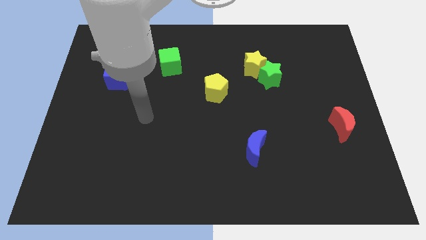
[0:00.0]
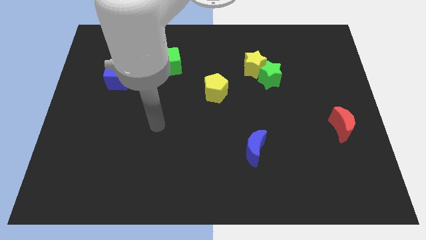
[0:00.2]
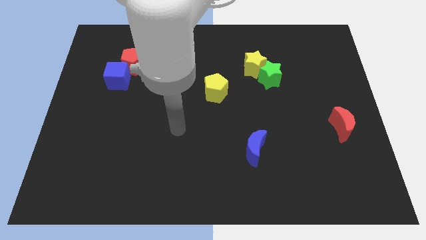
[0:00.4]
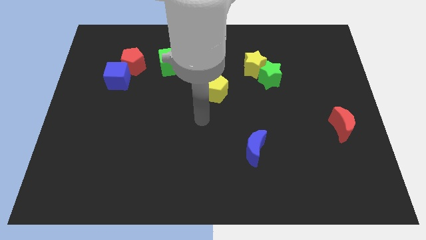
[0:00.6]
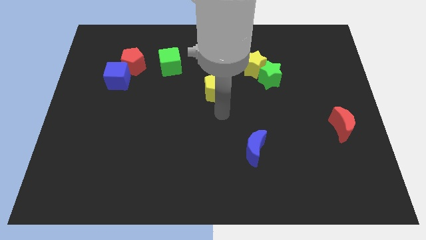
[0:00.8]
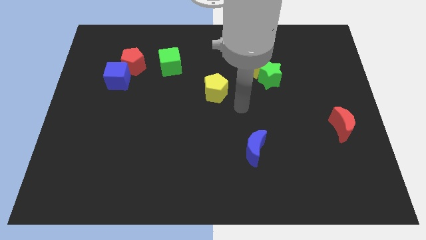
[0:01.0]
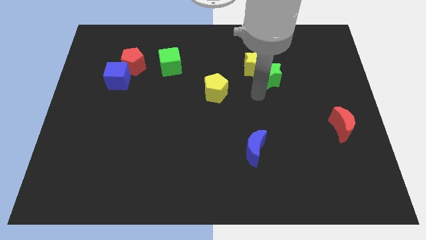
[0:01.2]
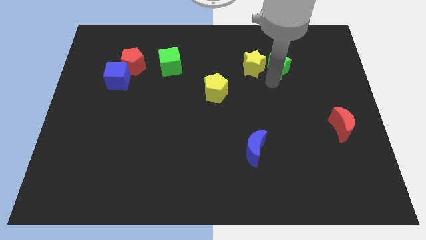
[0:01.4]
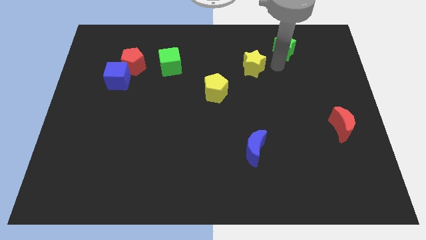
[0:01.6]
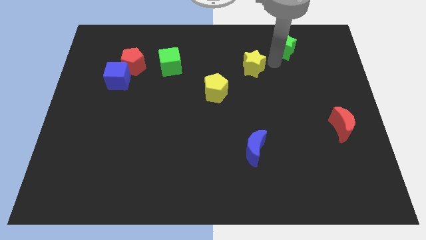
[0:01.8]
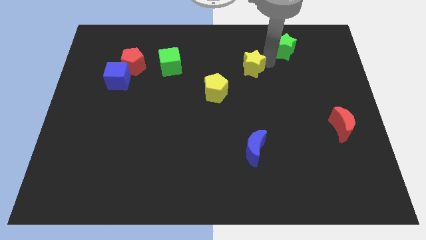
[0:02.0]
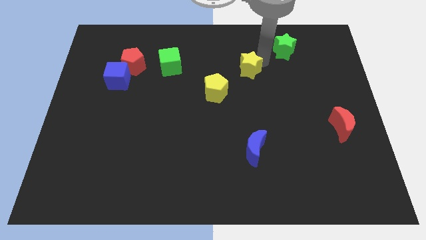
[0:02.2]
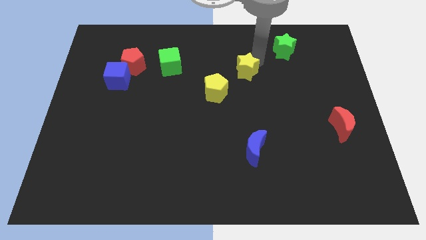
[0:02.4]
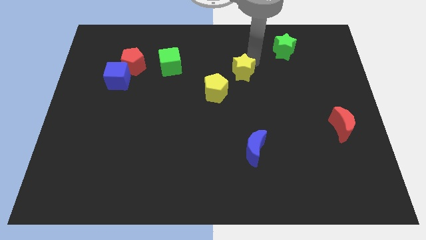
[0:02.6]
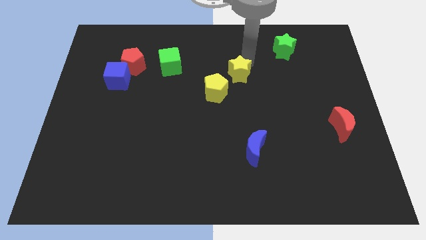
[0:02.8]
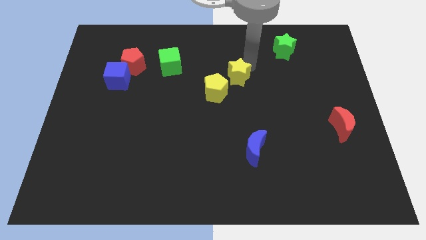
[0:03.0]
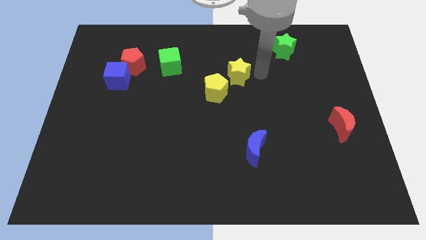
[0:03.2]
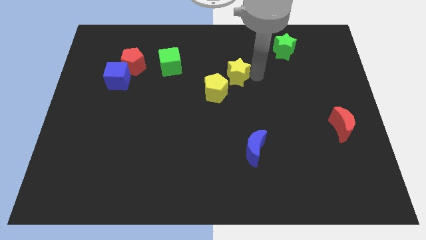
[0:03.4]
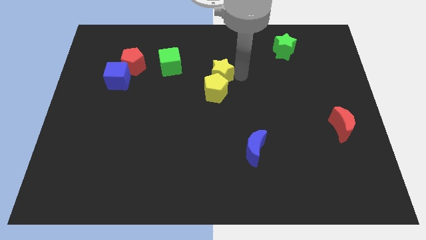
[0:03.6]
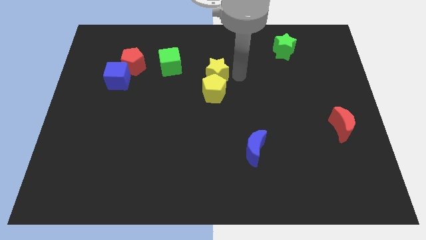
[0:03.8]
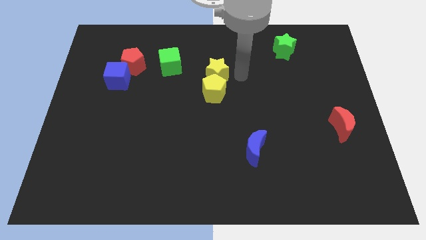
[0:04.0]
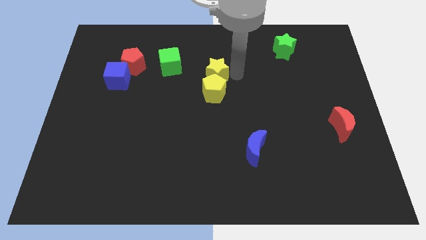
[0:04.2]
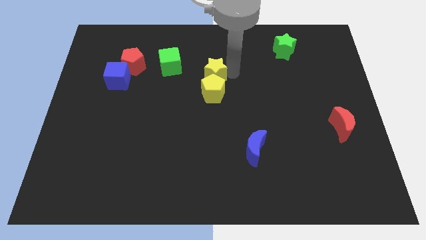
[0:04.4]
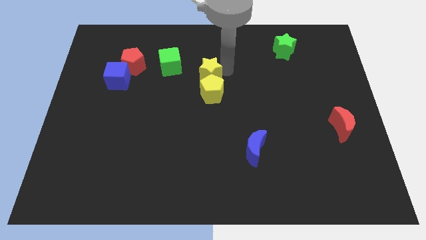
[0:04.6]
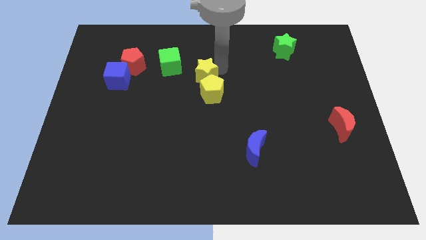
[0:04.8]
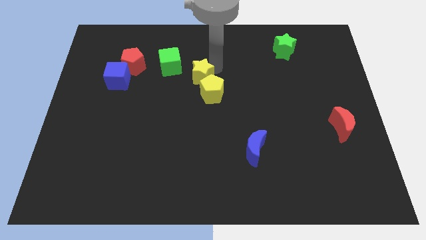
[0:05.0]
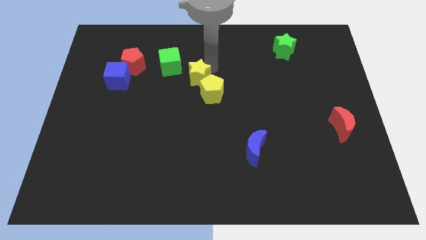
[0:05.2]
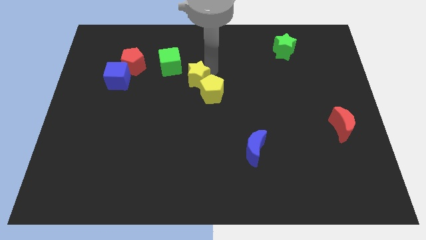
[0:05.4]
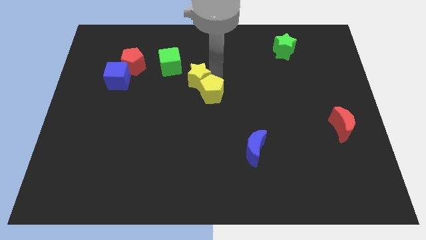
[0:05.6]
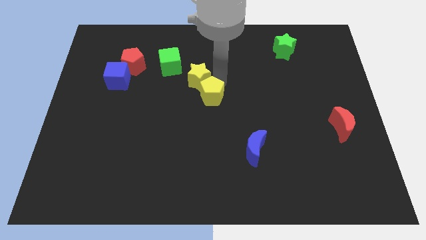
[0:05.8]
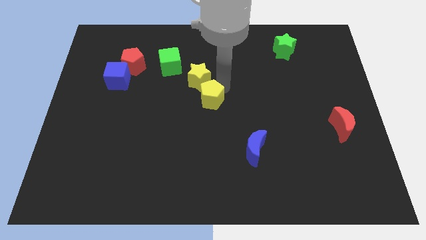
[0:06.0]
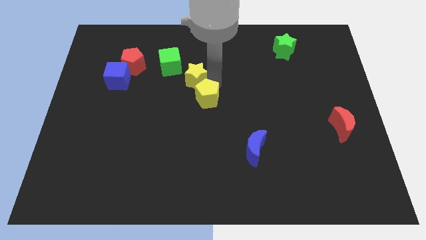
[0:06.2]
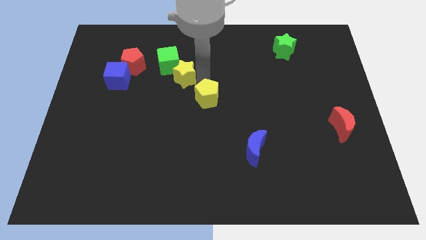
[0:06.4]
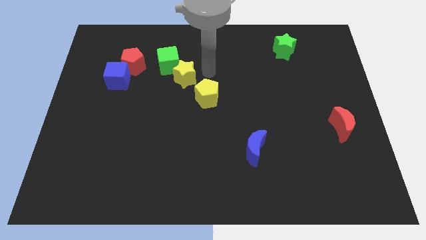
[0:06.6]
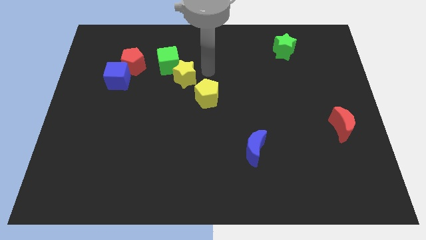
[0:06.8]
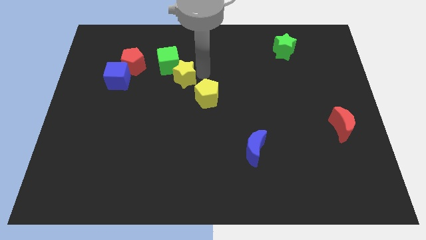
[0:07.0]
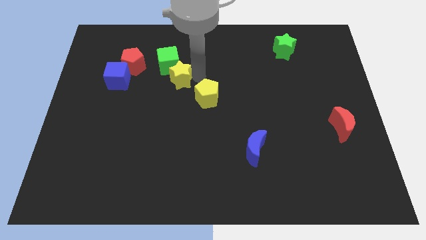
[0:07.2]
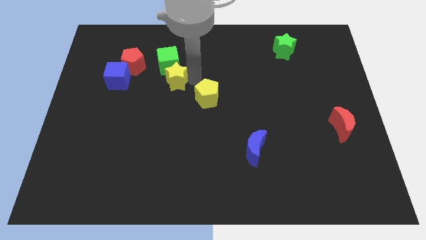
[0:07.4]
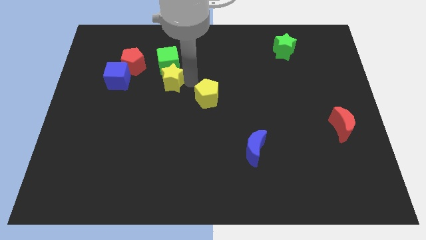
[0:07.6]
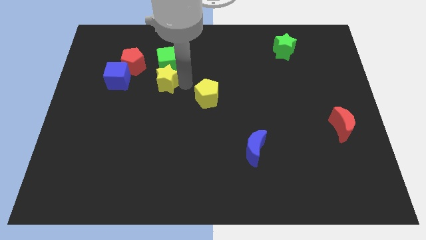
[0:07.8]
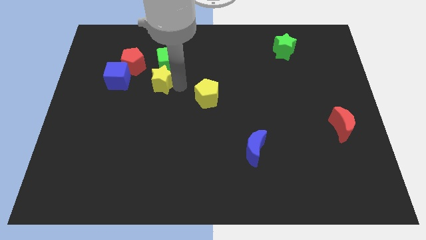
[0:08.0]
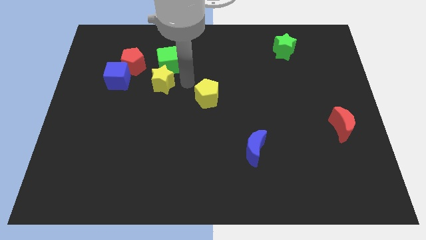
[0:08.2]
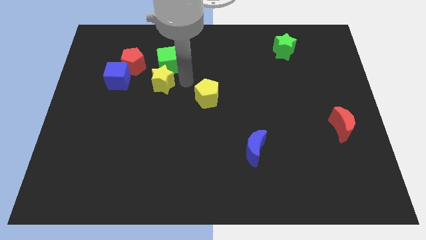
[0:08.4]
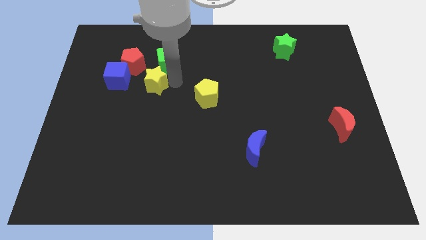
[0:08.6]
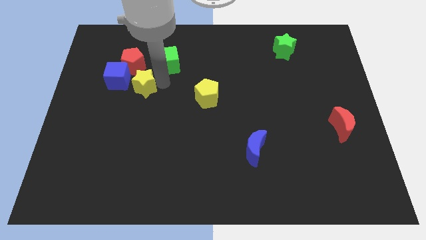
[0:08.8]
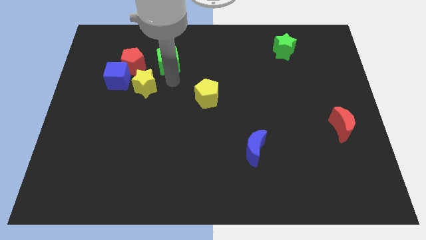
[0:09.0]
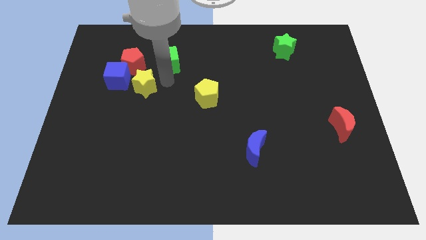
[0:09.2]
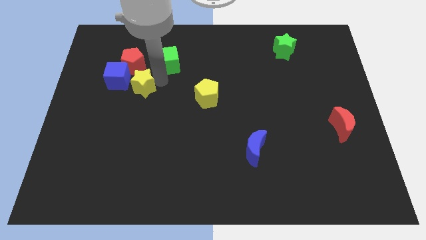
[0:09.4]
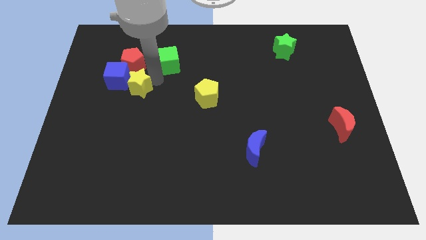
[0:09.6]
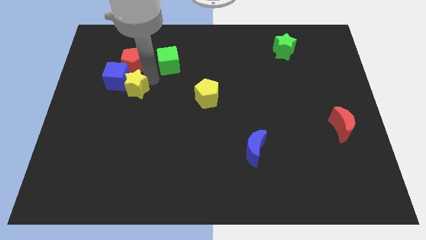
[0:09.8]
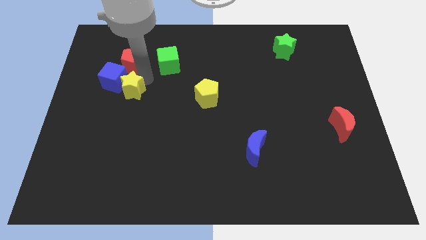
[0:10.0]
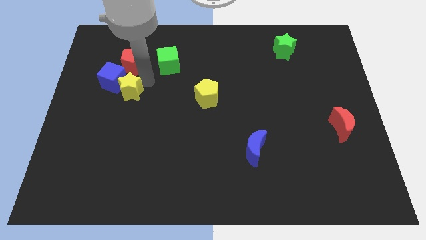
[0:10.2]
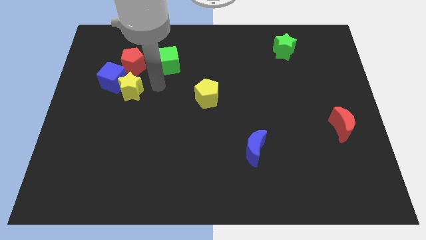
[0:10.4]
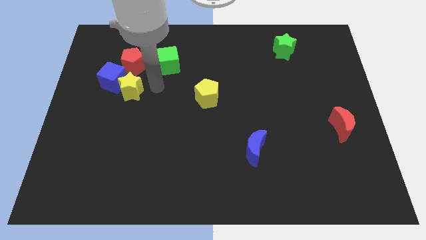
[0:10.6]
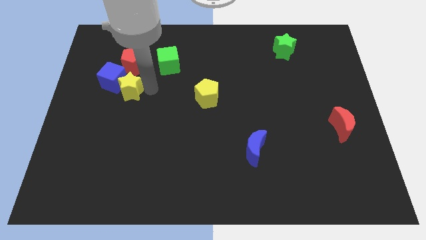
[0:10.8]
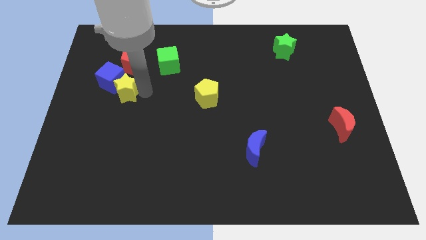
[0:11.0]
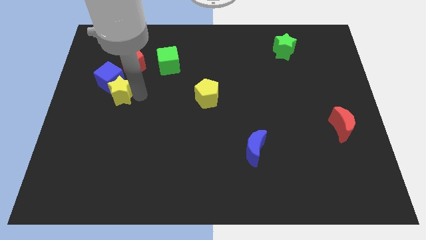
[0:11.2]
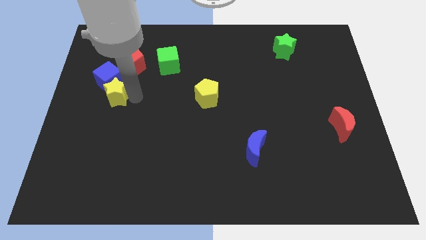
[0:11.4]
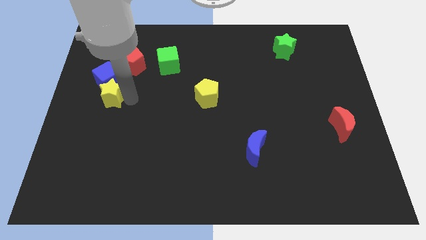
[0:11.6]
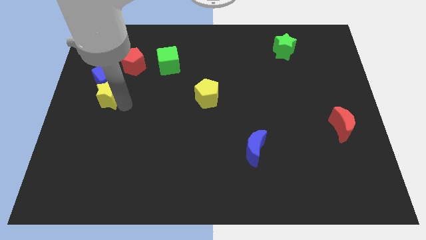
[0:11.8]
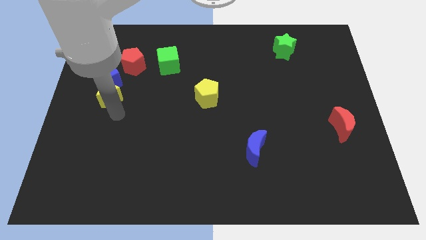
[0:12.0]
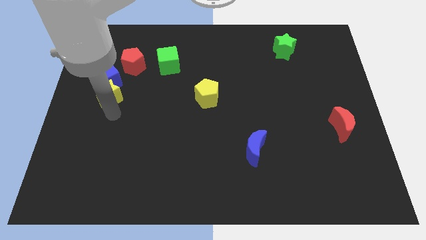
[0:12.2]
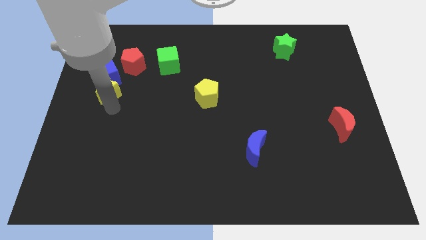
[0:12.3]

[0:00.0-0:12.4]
slide the yellow star to the bottom left of the red pentagon

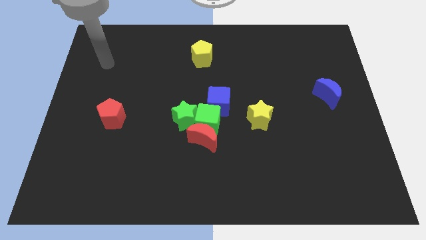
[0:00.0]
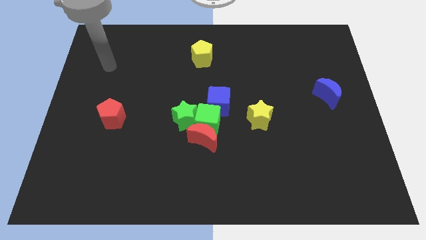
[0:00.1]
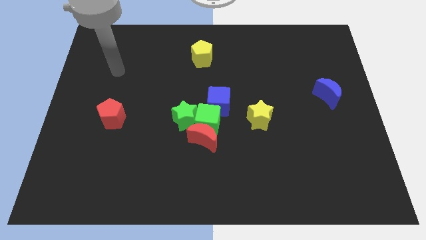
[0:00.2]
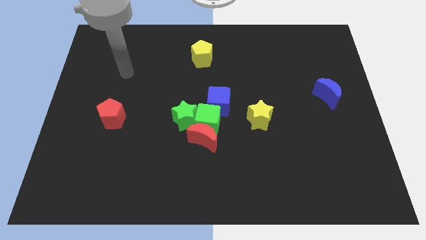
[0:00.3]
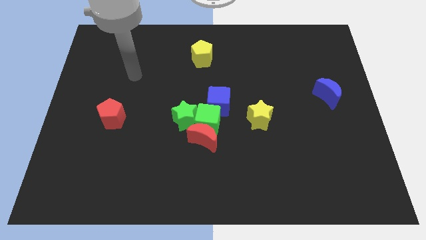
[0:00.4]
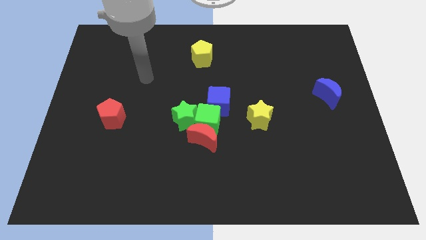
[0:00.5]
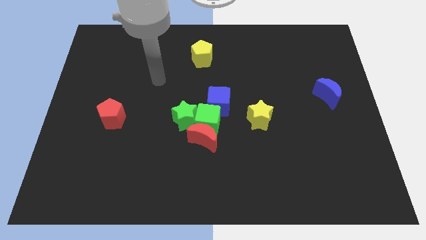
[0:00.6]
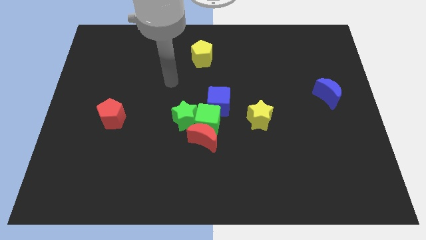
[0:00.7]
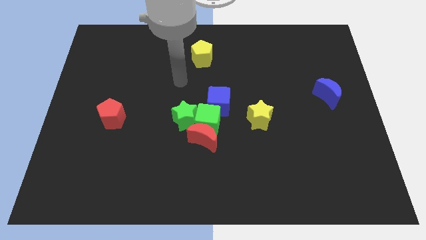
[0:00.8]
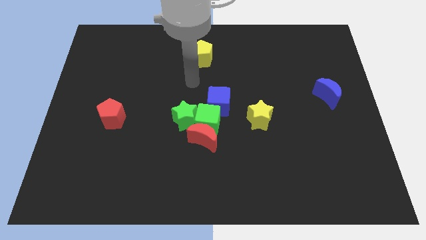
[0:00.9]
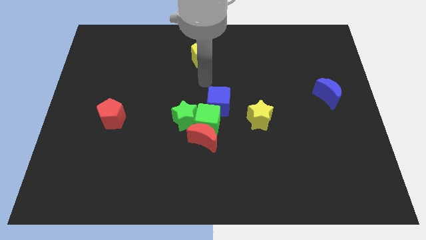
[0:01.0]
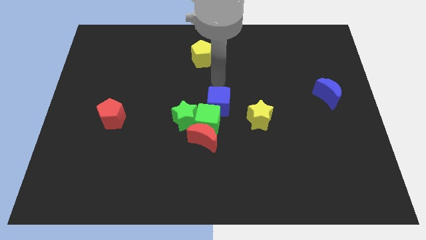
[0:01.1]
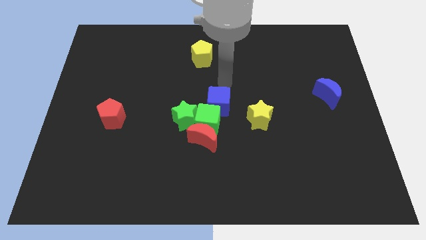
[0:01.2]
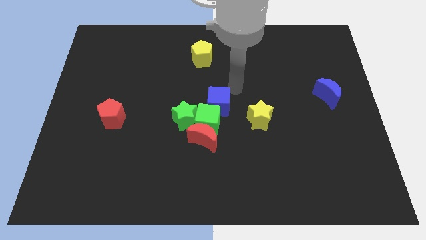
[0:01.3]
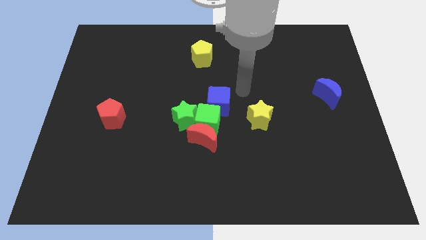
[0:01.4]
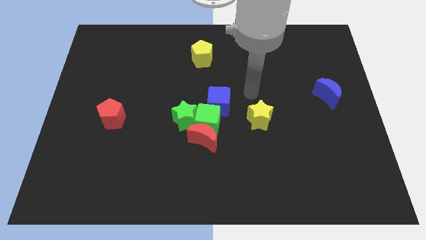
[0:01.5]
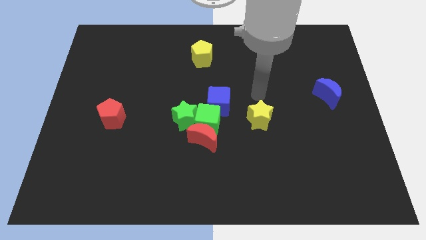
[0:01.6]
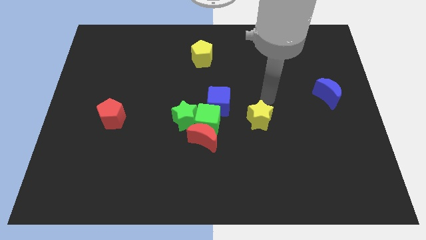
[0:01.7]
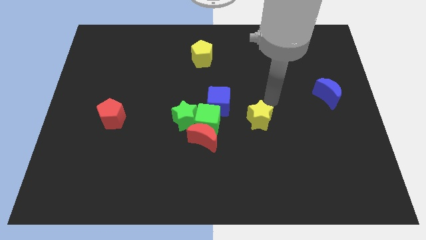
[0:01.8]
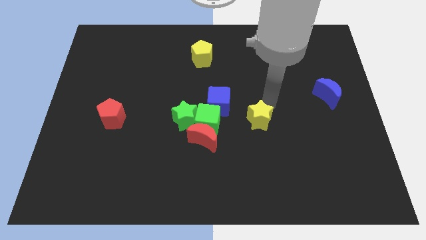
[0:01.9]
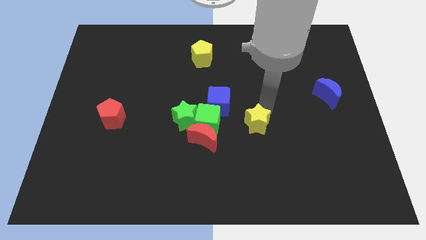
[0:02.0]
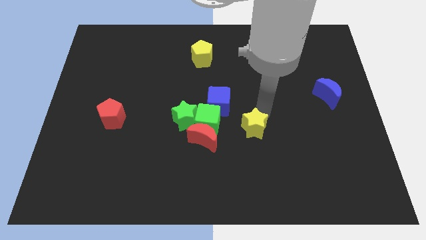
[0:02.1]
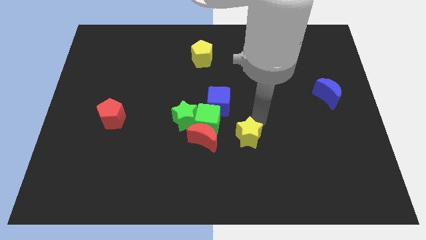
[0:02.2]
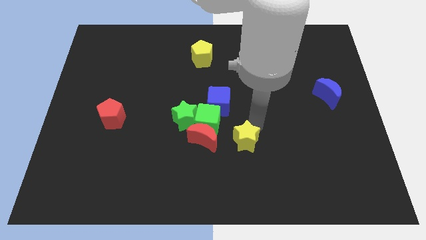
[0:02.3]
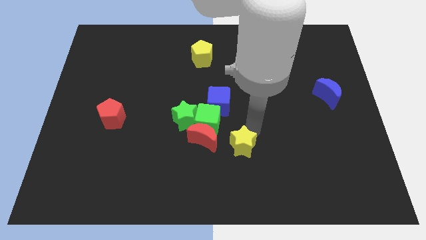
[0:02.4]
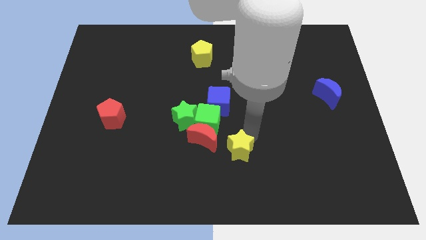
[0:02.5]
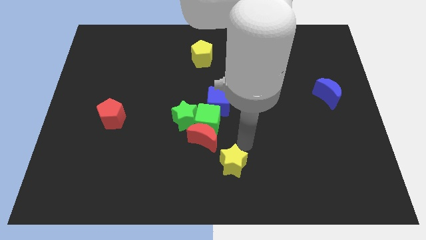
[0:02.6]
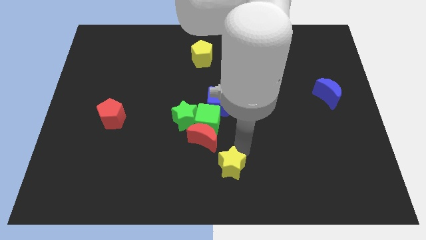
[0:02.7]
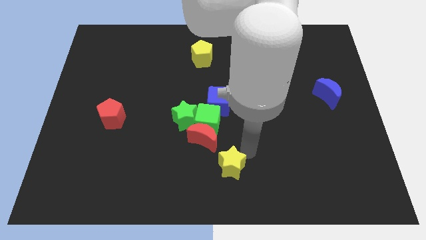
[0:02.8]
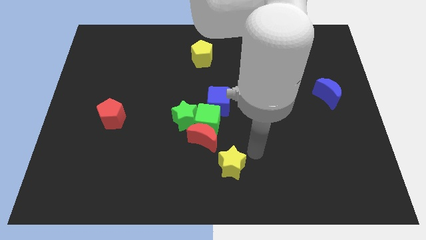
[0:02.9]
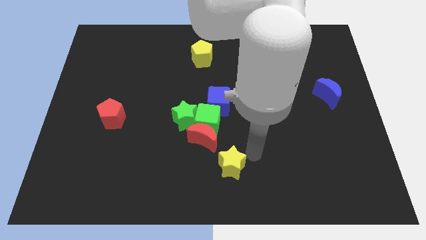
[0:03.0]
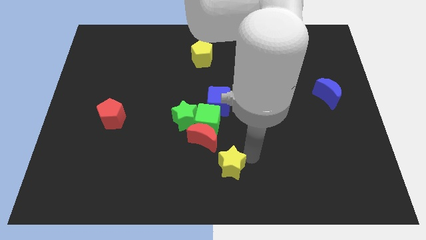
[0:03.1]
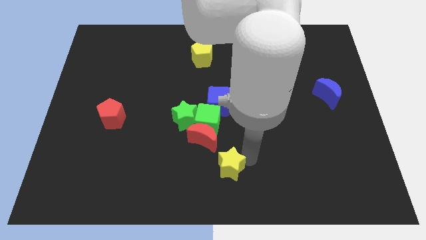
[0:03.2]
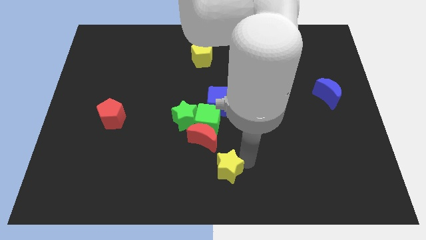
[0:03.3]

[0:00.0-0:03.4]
slide the yellow star below the red moon
